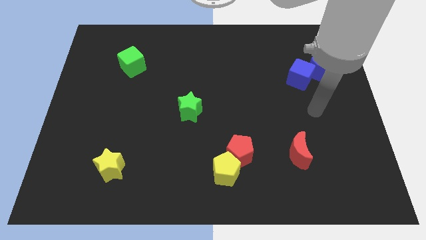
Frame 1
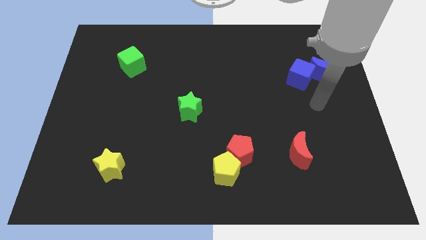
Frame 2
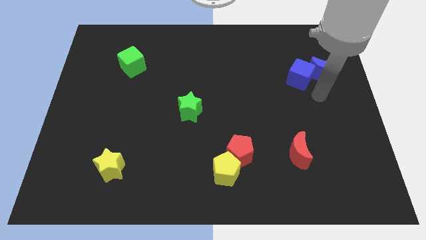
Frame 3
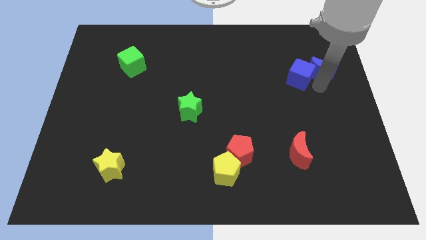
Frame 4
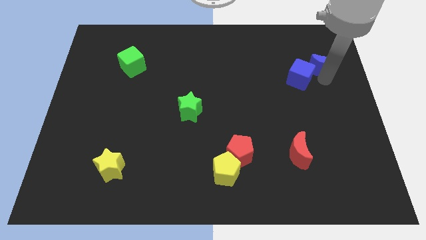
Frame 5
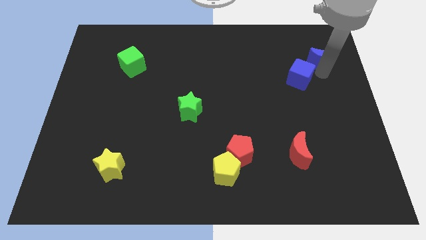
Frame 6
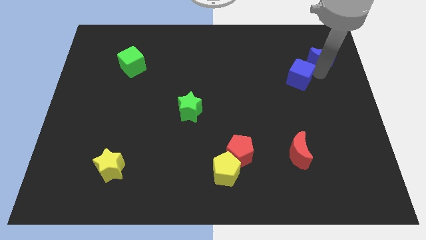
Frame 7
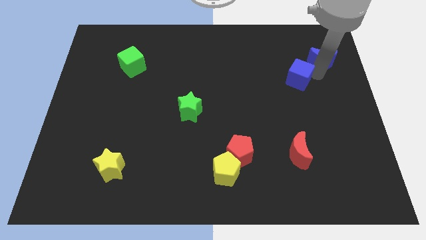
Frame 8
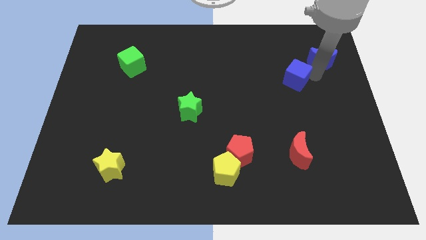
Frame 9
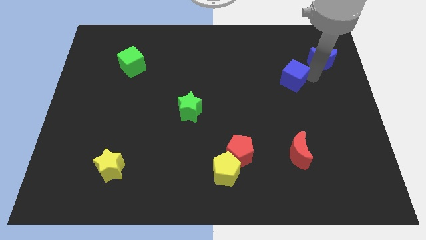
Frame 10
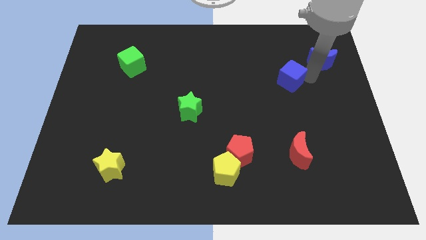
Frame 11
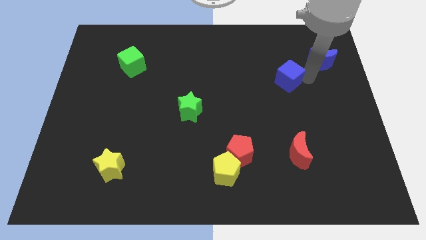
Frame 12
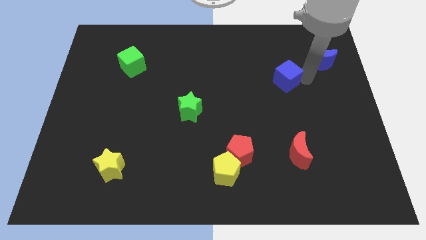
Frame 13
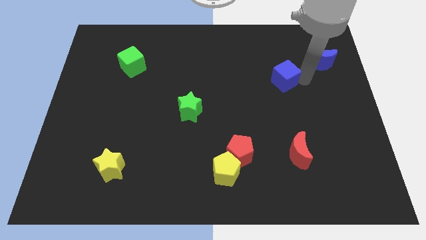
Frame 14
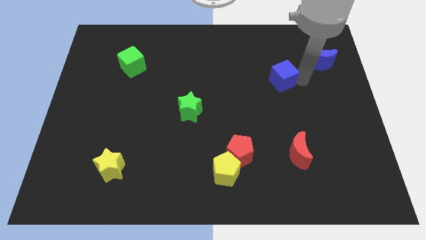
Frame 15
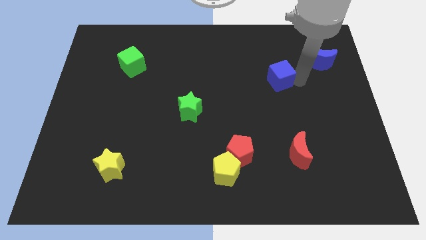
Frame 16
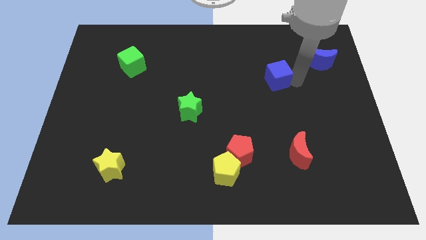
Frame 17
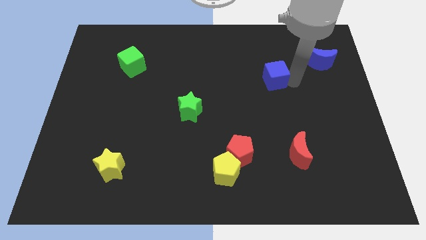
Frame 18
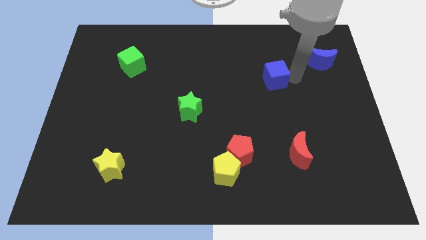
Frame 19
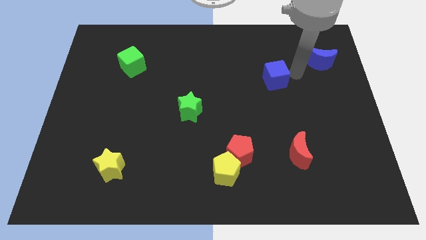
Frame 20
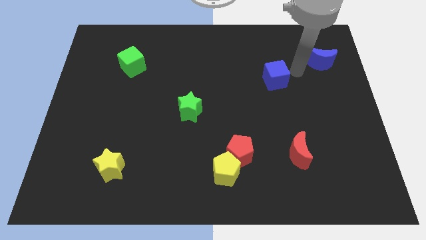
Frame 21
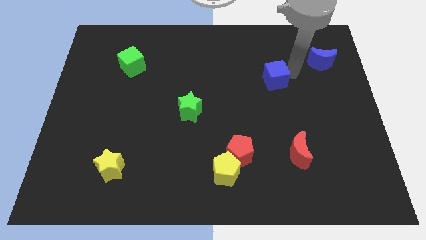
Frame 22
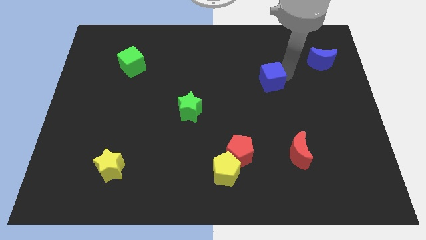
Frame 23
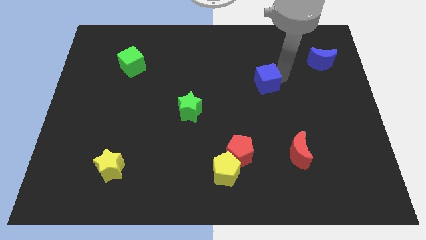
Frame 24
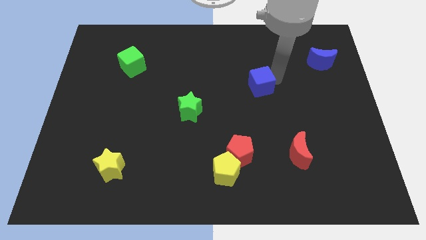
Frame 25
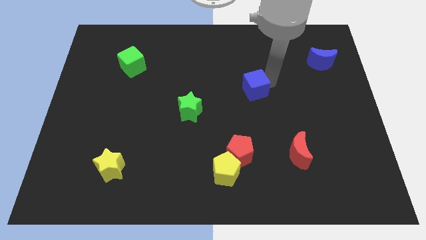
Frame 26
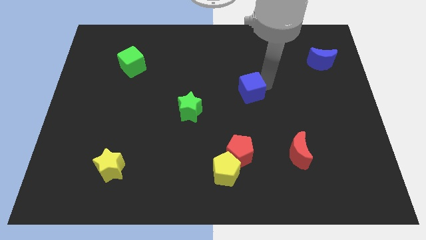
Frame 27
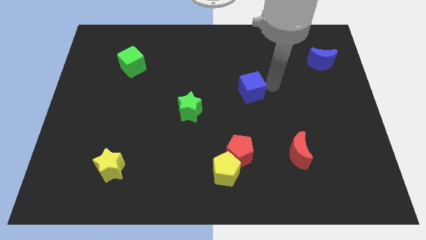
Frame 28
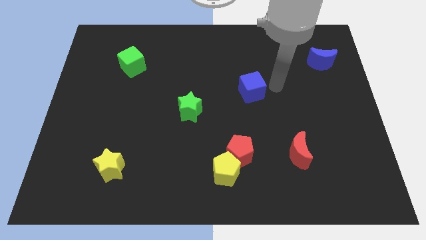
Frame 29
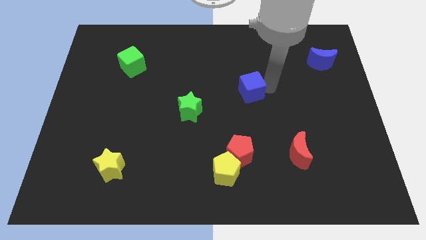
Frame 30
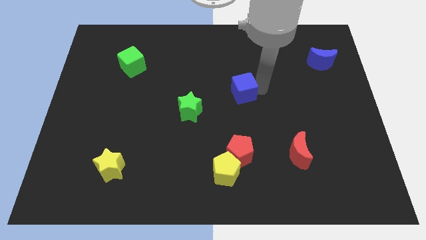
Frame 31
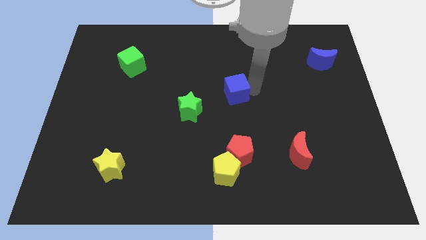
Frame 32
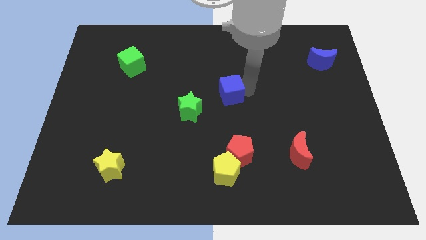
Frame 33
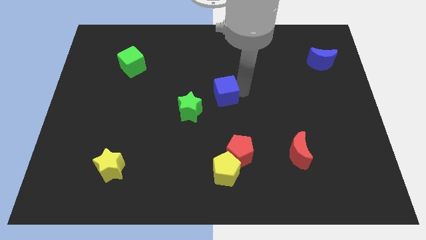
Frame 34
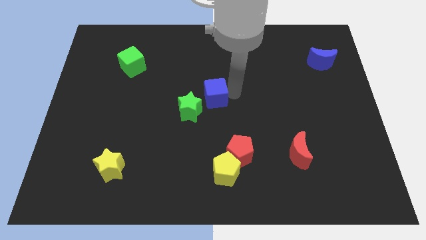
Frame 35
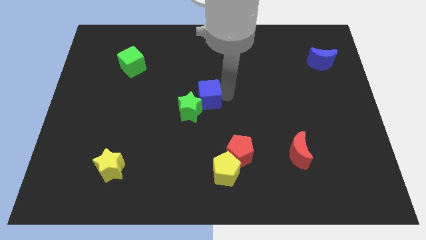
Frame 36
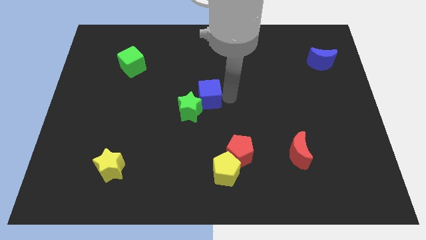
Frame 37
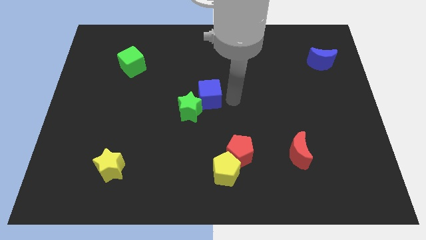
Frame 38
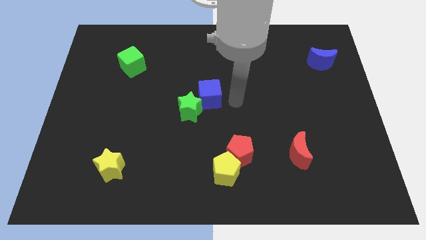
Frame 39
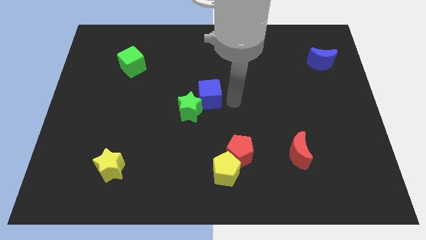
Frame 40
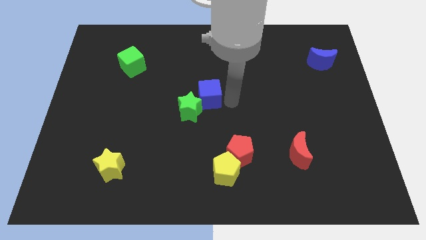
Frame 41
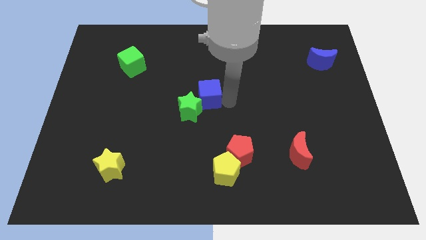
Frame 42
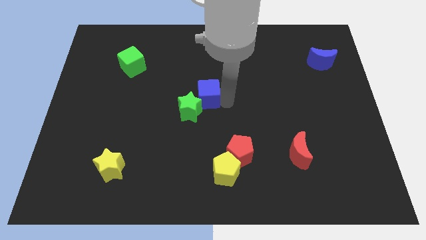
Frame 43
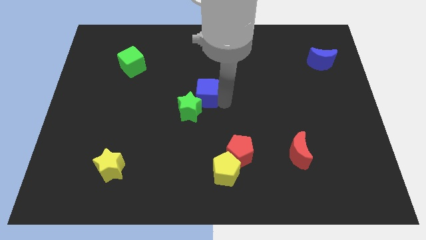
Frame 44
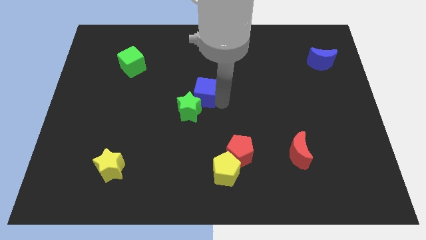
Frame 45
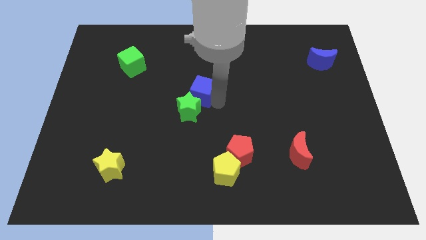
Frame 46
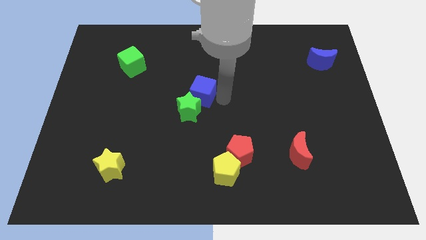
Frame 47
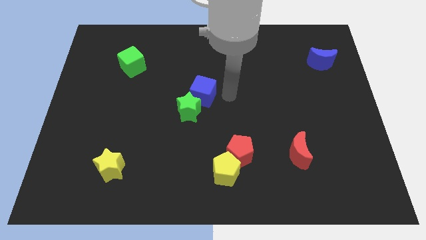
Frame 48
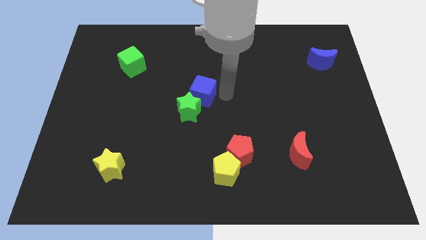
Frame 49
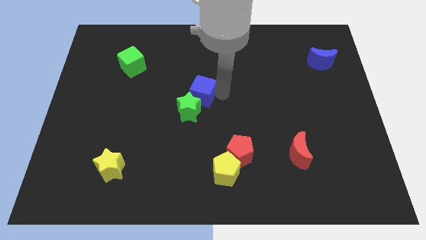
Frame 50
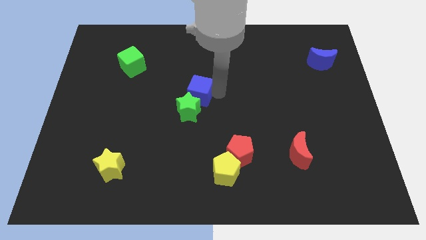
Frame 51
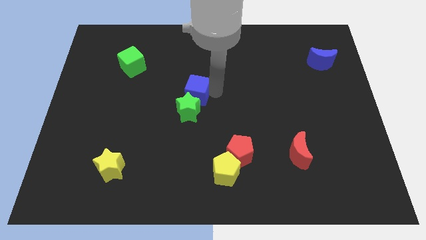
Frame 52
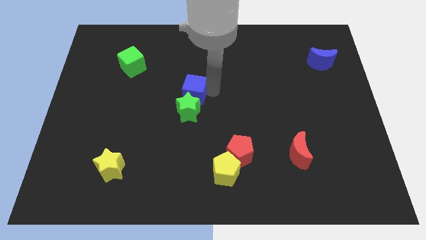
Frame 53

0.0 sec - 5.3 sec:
move the blue cube diagonally up and to the left of the green star

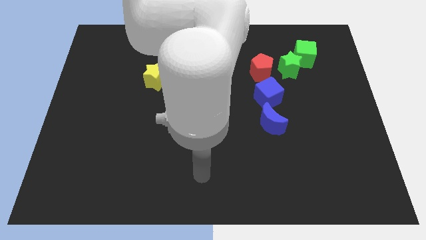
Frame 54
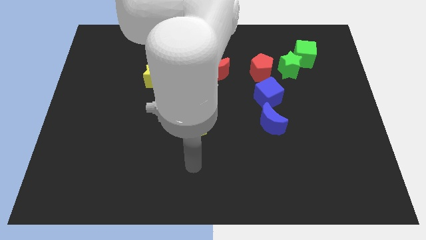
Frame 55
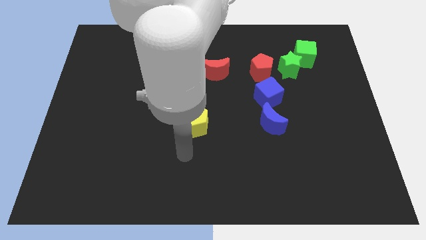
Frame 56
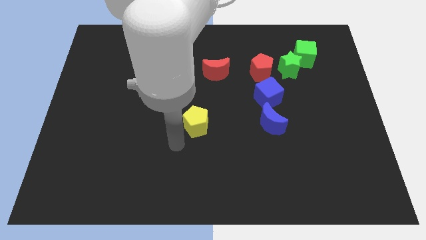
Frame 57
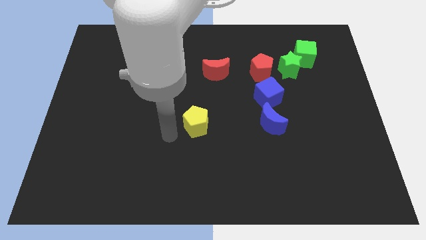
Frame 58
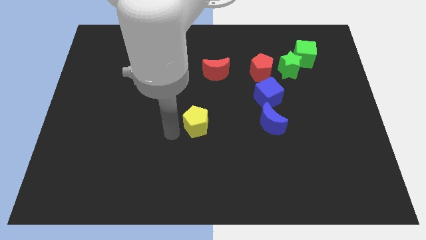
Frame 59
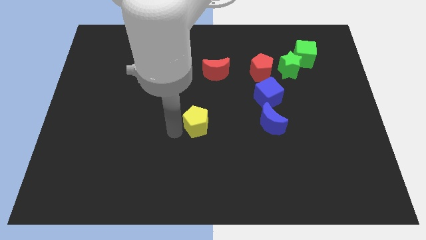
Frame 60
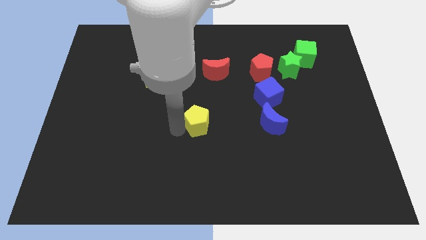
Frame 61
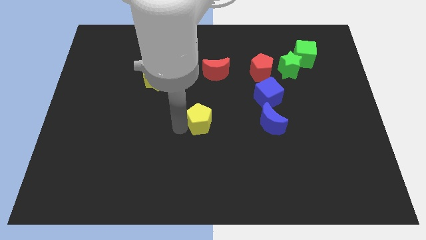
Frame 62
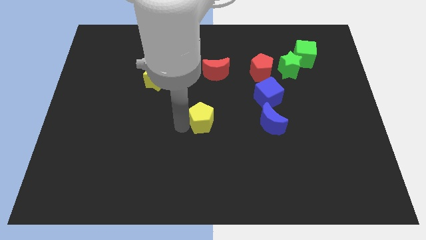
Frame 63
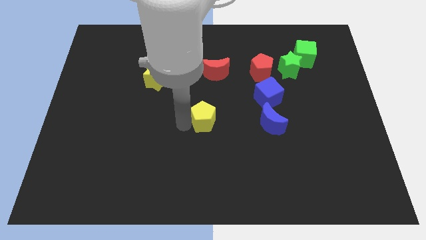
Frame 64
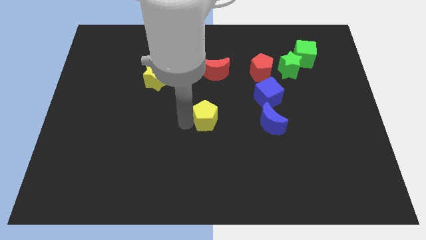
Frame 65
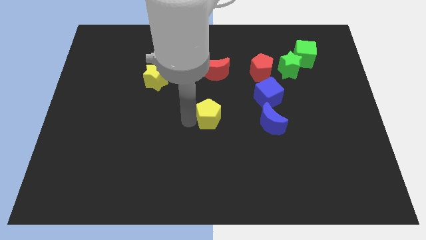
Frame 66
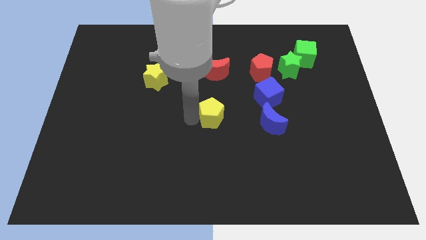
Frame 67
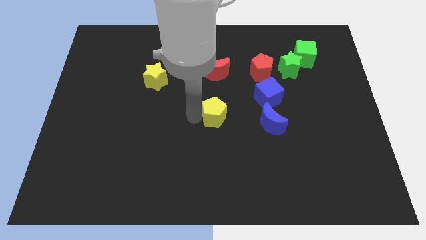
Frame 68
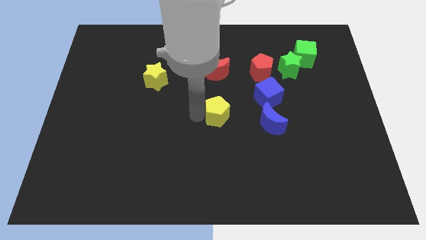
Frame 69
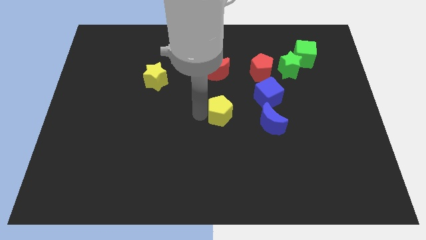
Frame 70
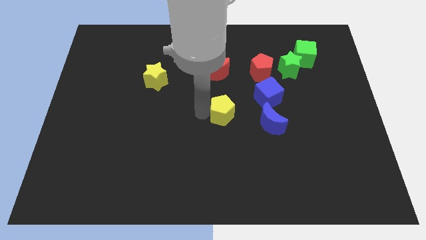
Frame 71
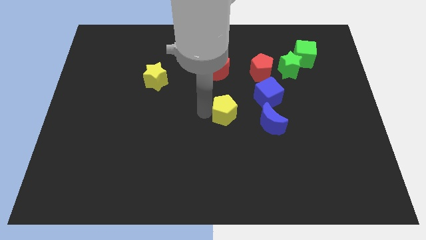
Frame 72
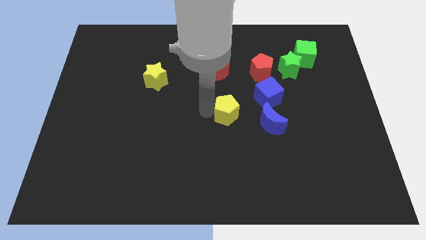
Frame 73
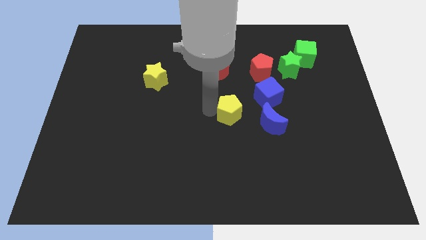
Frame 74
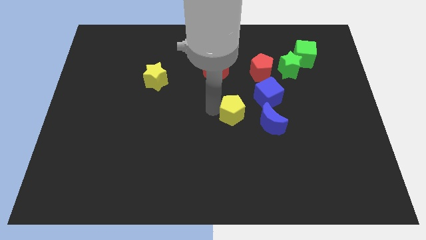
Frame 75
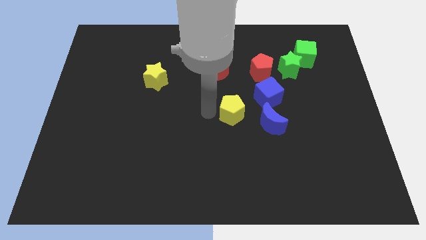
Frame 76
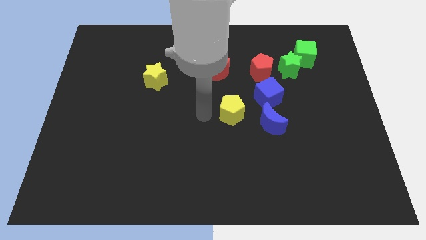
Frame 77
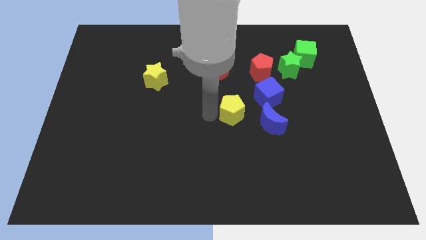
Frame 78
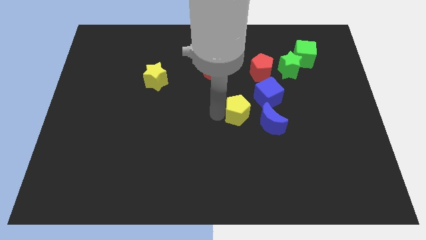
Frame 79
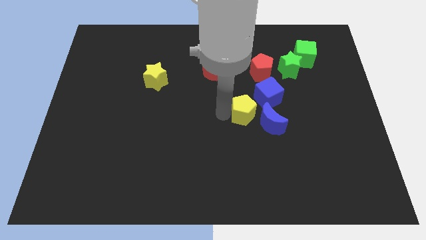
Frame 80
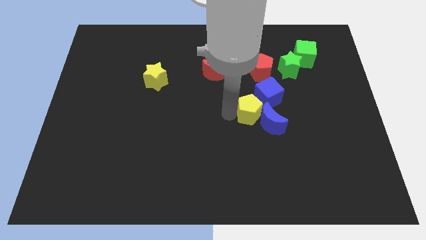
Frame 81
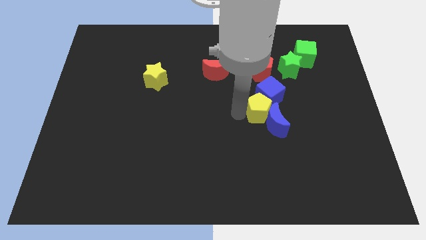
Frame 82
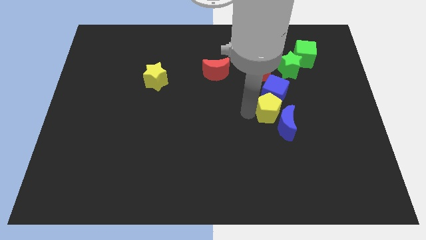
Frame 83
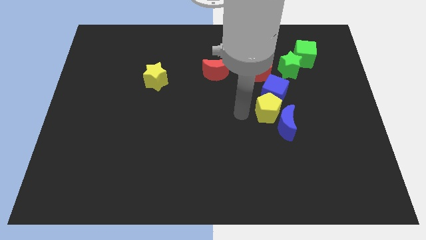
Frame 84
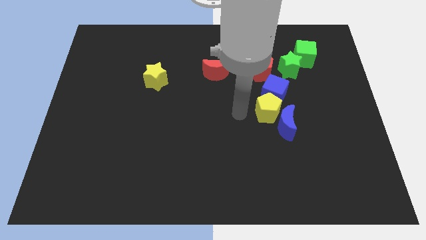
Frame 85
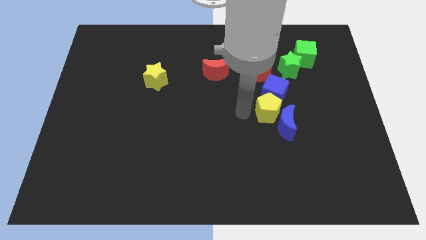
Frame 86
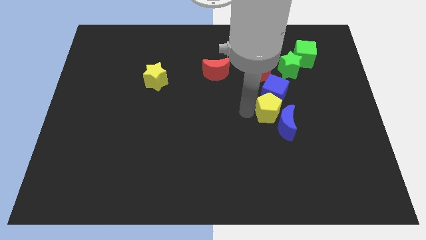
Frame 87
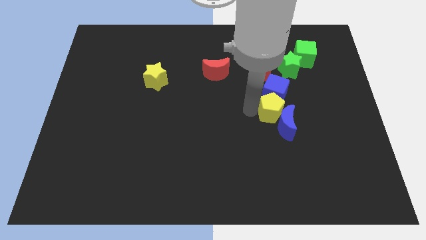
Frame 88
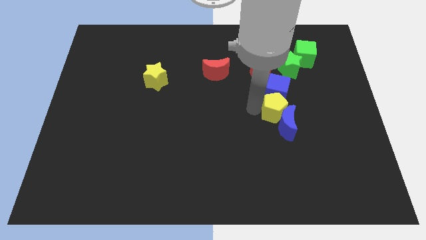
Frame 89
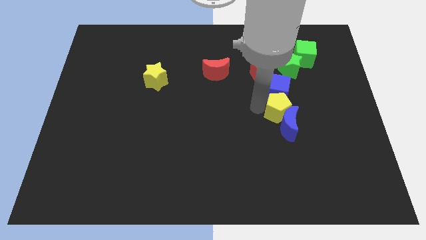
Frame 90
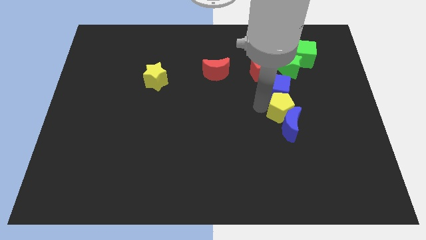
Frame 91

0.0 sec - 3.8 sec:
push the yellow pentagon to the top right side of the blue moon
